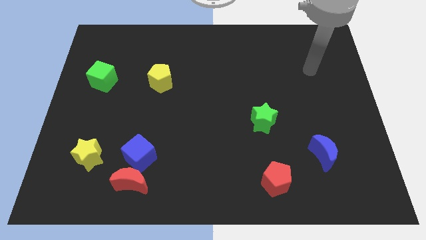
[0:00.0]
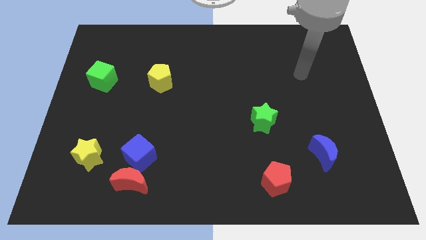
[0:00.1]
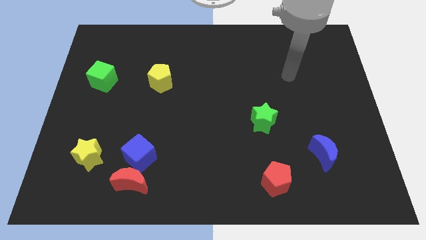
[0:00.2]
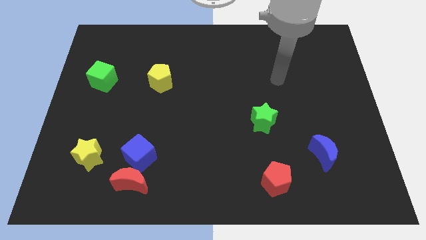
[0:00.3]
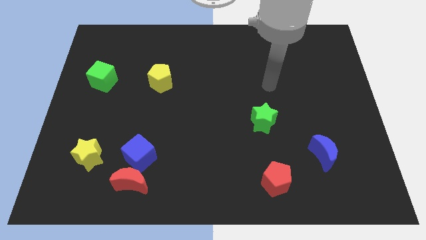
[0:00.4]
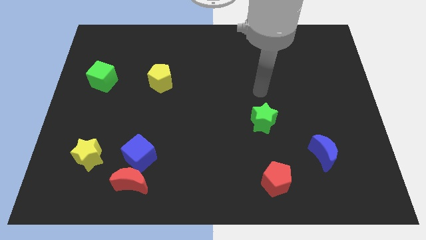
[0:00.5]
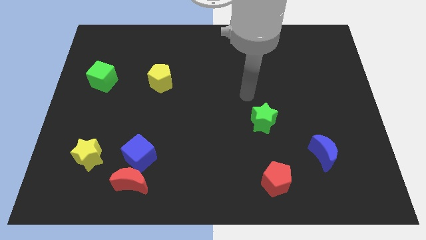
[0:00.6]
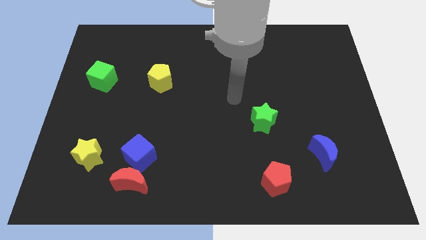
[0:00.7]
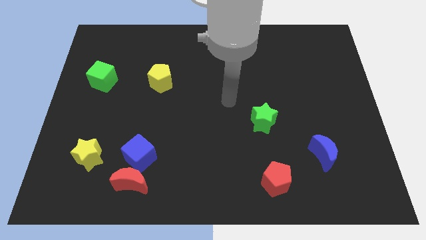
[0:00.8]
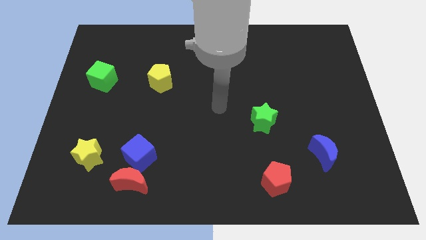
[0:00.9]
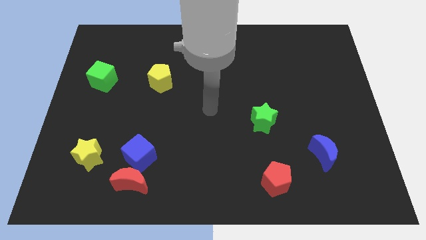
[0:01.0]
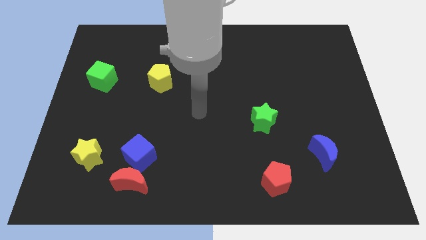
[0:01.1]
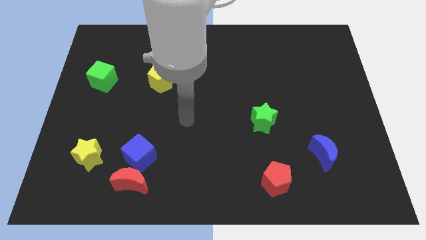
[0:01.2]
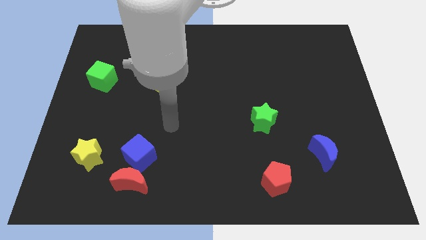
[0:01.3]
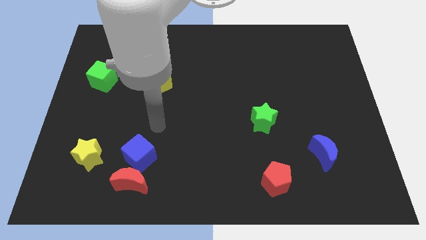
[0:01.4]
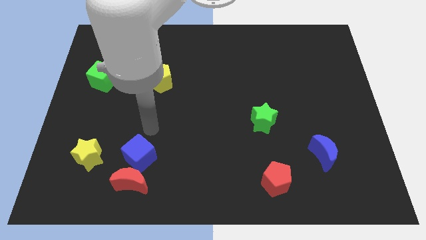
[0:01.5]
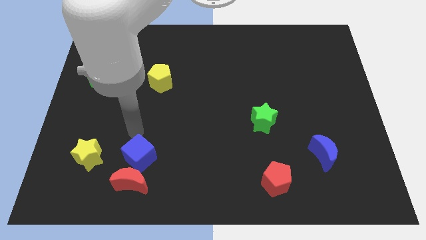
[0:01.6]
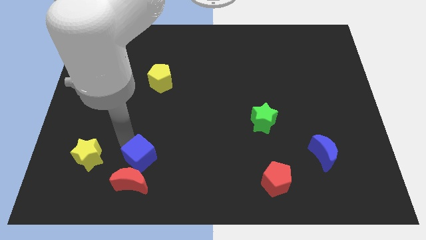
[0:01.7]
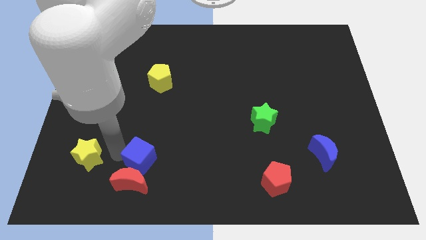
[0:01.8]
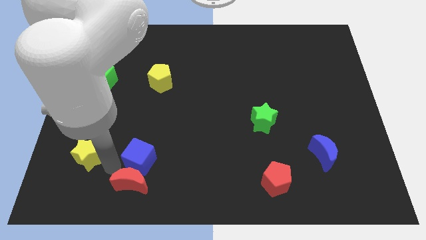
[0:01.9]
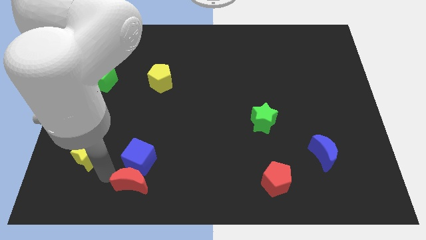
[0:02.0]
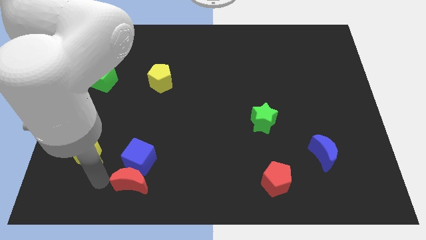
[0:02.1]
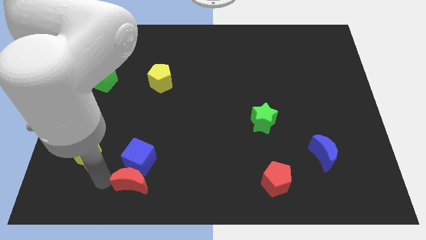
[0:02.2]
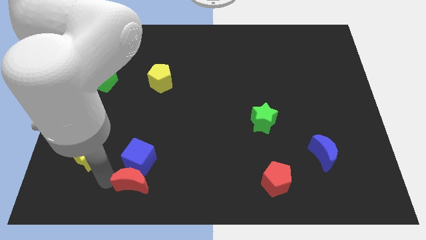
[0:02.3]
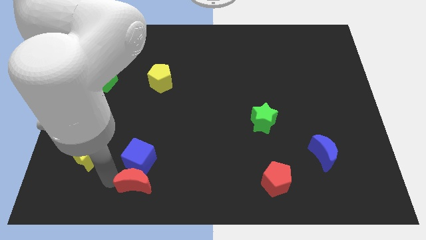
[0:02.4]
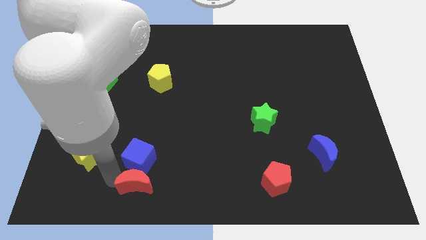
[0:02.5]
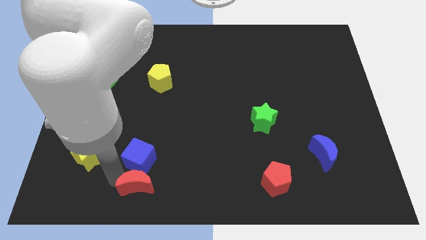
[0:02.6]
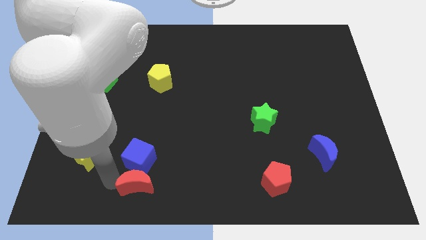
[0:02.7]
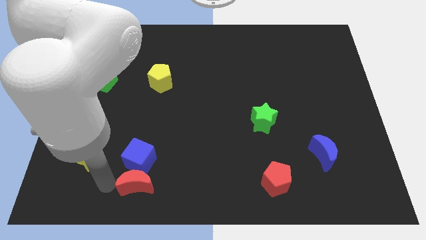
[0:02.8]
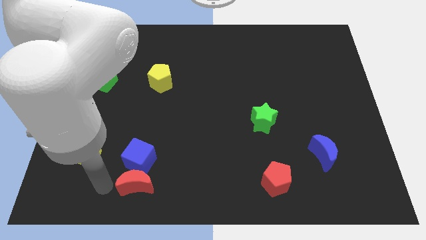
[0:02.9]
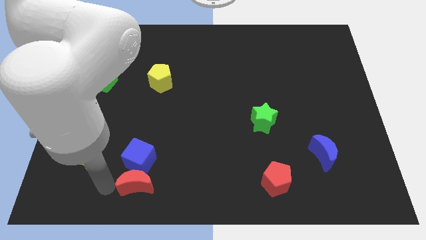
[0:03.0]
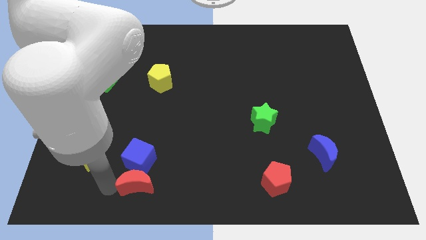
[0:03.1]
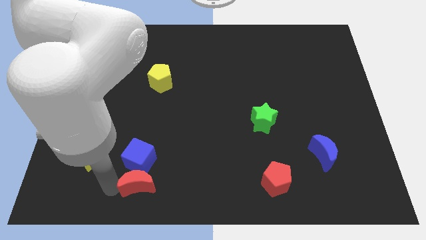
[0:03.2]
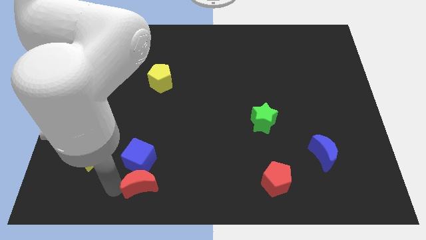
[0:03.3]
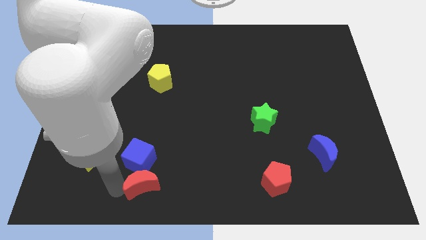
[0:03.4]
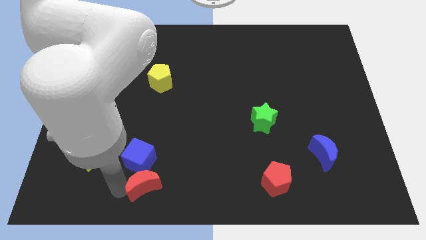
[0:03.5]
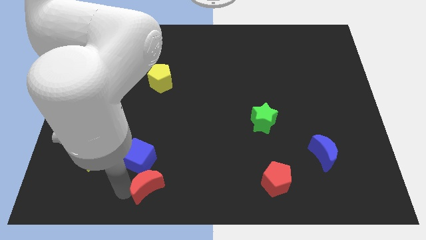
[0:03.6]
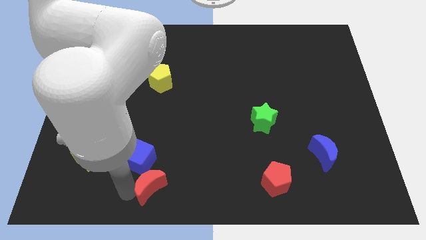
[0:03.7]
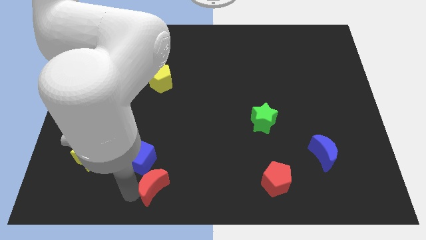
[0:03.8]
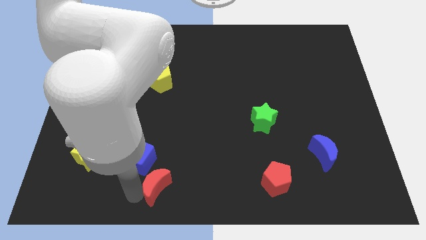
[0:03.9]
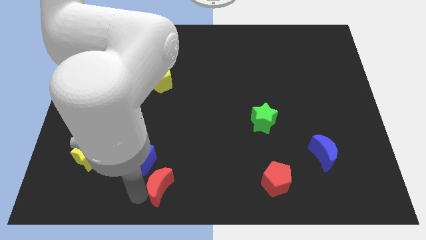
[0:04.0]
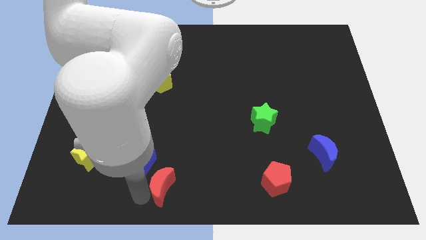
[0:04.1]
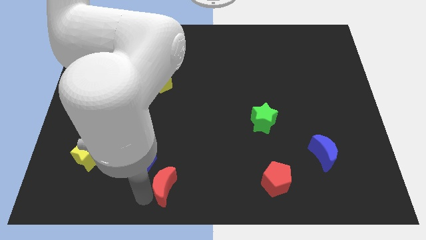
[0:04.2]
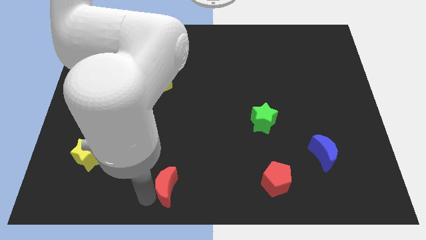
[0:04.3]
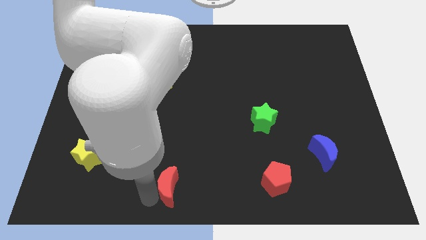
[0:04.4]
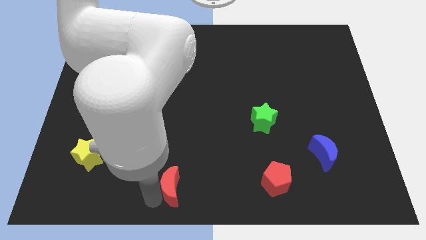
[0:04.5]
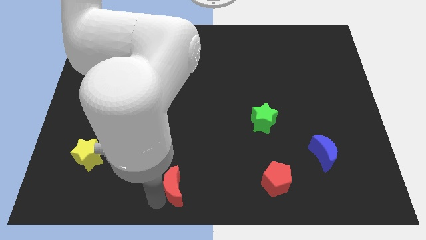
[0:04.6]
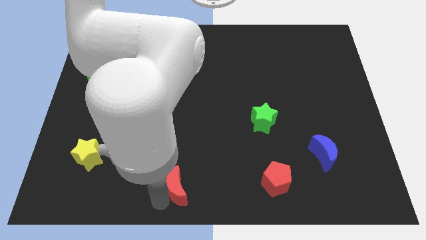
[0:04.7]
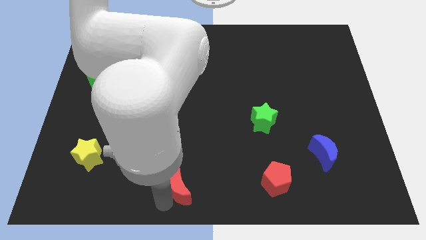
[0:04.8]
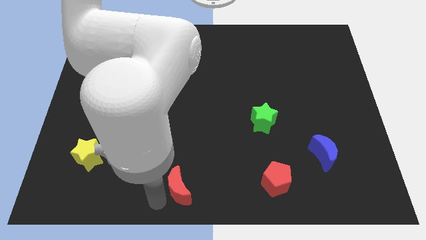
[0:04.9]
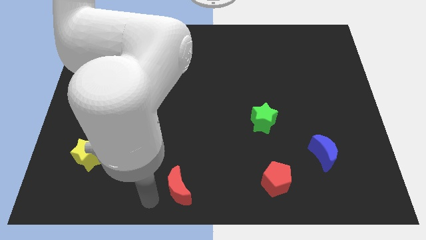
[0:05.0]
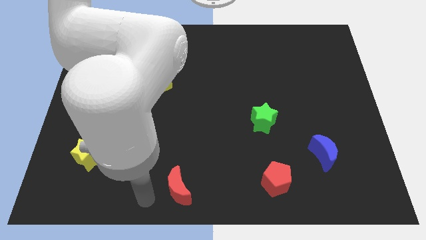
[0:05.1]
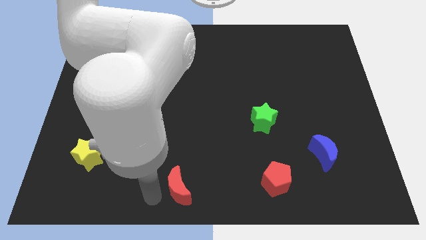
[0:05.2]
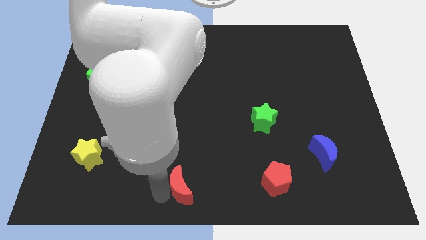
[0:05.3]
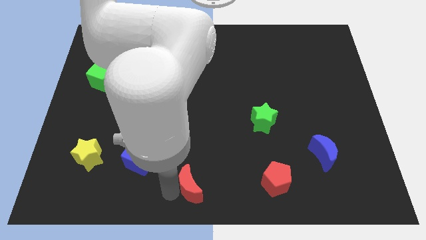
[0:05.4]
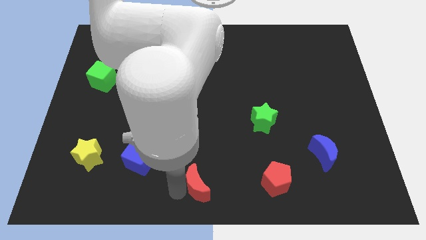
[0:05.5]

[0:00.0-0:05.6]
push the red moon to the left of the red pentagon

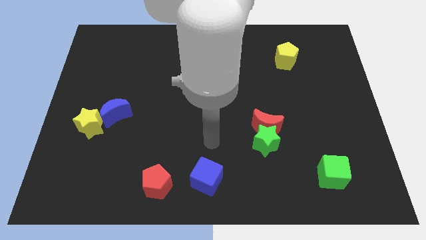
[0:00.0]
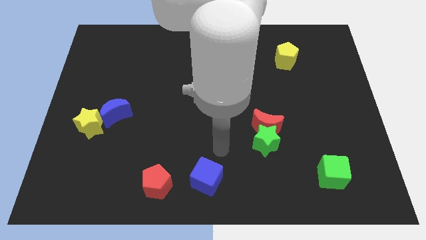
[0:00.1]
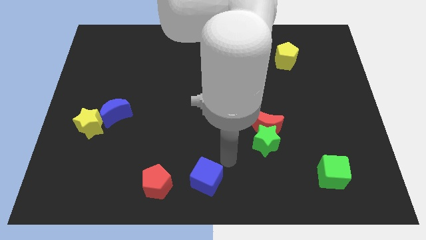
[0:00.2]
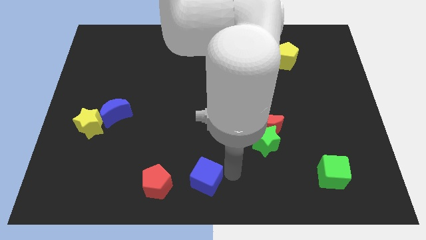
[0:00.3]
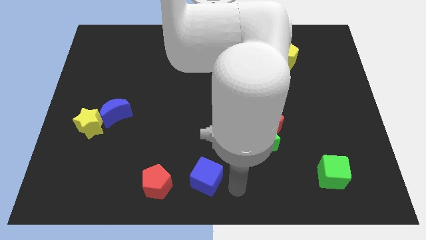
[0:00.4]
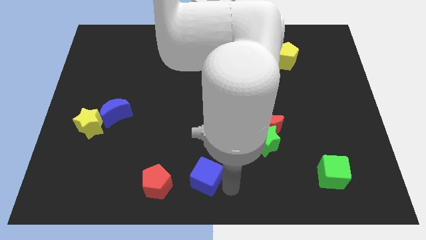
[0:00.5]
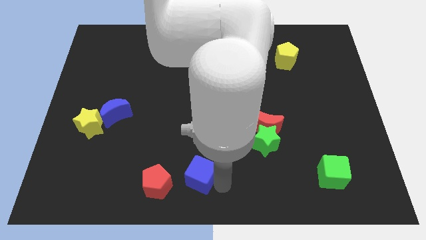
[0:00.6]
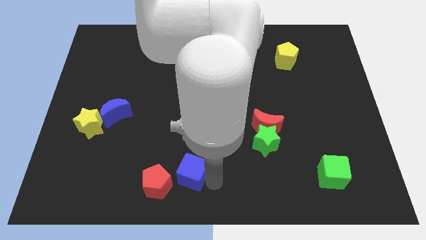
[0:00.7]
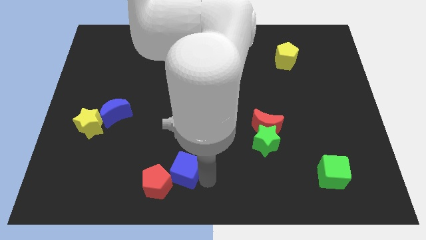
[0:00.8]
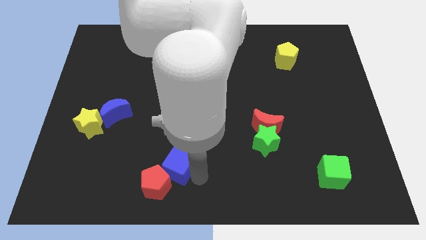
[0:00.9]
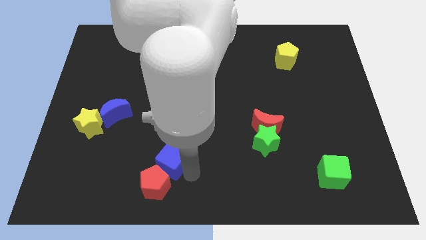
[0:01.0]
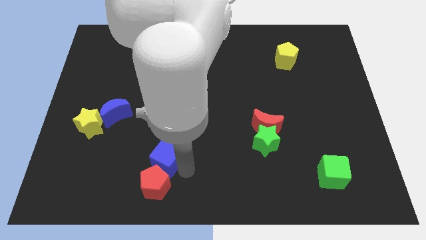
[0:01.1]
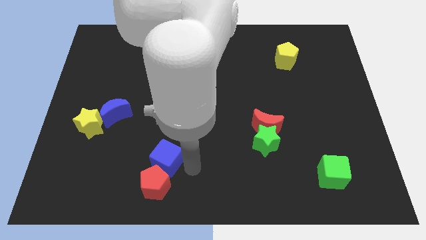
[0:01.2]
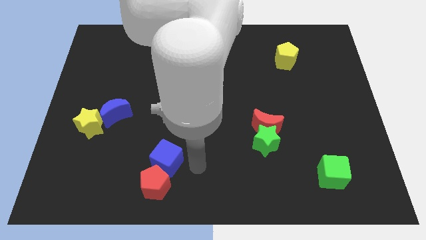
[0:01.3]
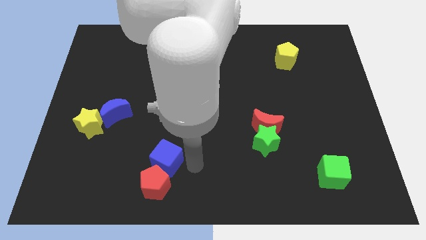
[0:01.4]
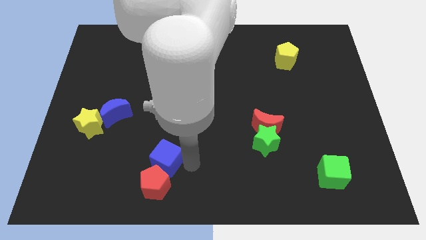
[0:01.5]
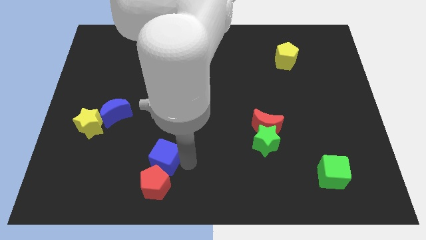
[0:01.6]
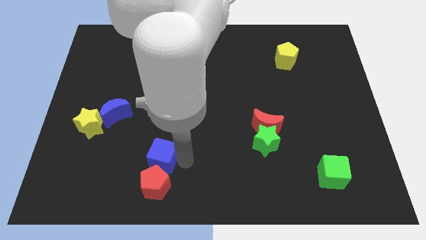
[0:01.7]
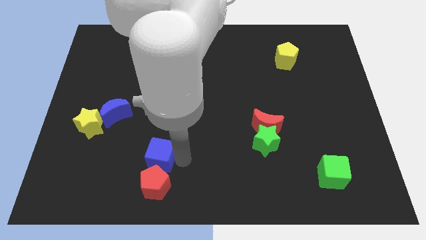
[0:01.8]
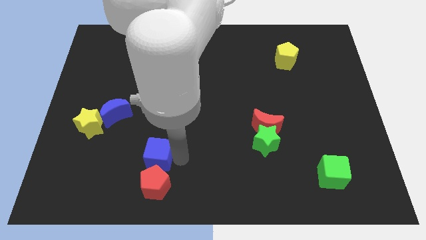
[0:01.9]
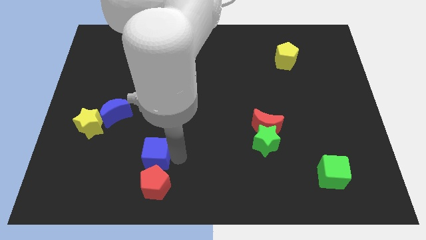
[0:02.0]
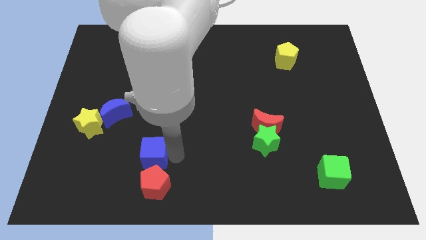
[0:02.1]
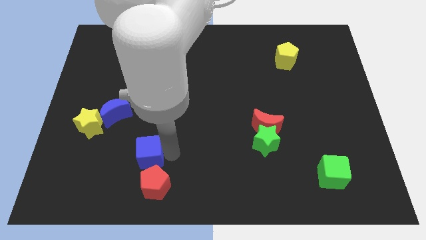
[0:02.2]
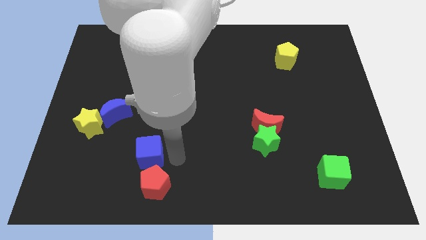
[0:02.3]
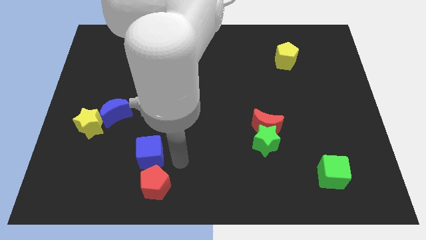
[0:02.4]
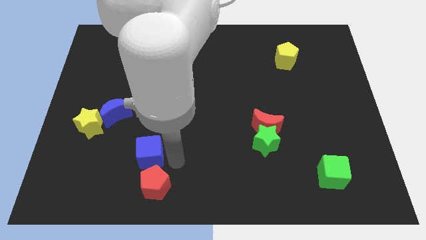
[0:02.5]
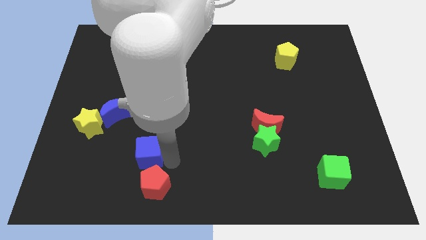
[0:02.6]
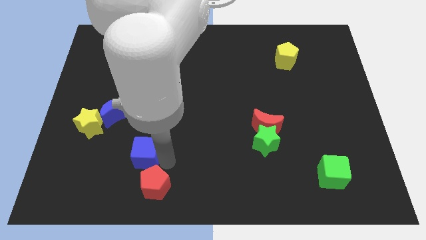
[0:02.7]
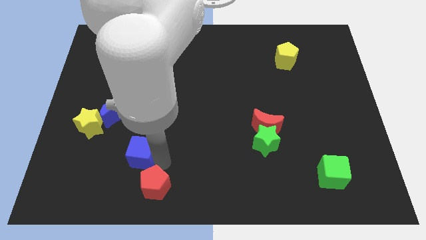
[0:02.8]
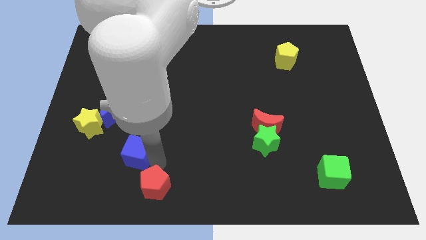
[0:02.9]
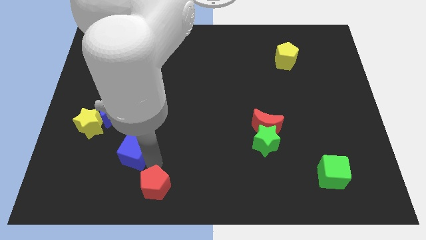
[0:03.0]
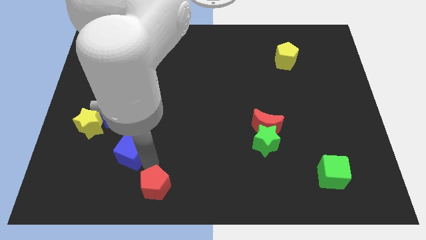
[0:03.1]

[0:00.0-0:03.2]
put the blue cube to the bottom right side of the yellow star
